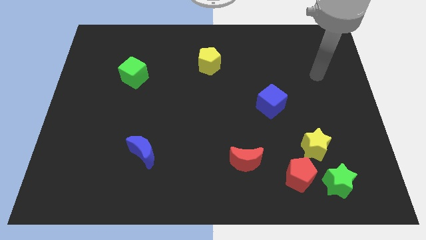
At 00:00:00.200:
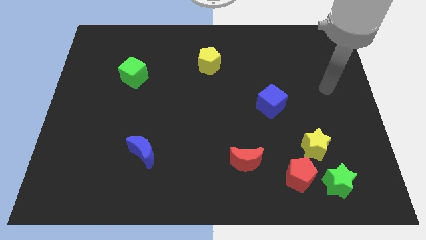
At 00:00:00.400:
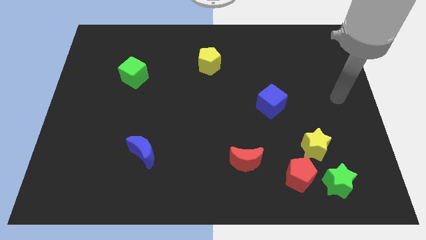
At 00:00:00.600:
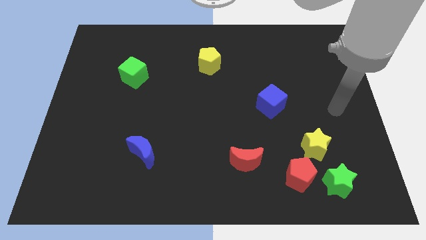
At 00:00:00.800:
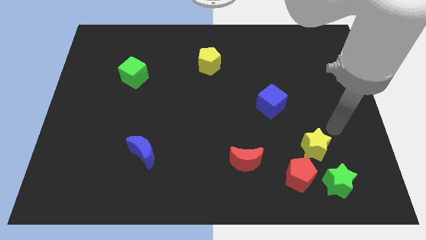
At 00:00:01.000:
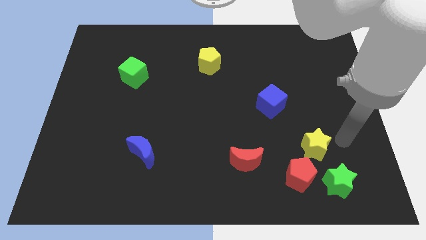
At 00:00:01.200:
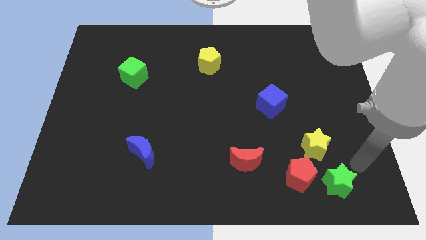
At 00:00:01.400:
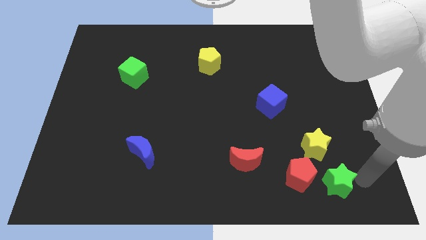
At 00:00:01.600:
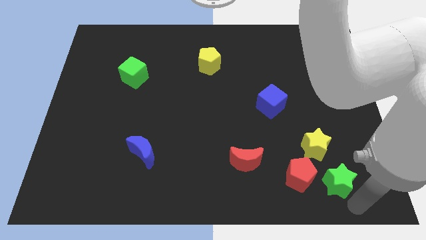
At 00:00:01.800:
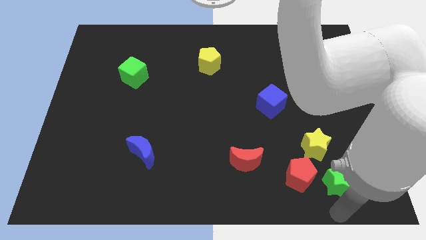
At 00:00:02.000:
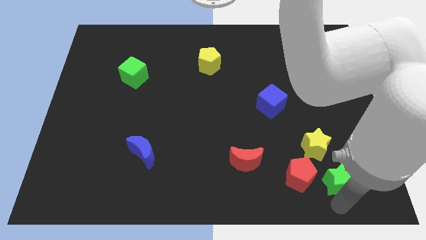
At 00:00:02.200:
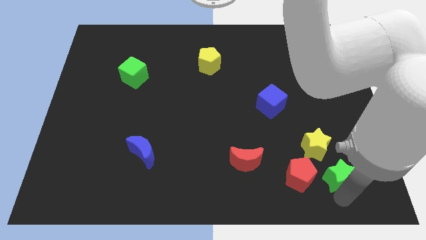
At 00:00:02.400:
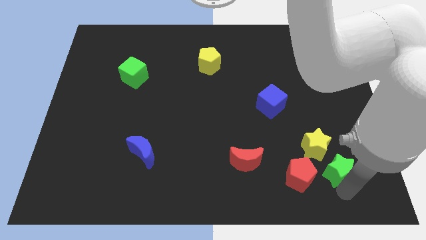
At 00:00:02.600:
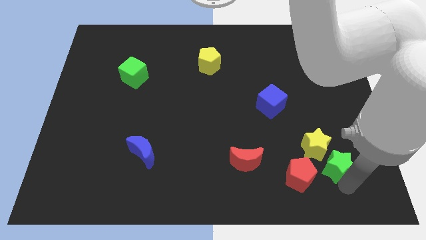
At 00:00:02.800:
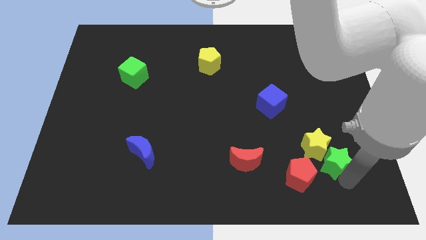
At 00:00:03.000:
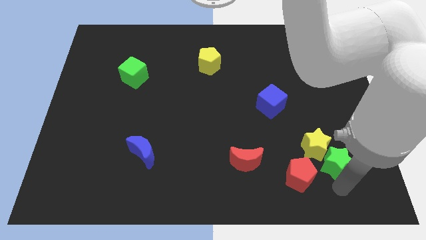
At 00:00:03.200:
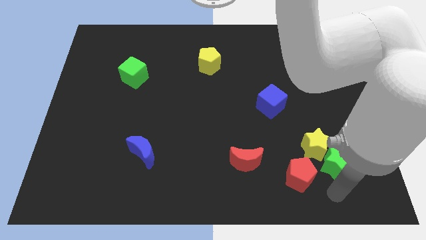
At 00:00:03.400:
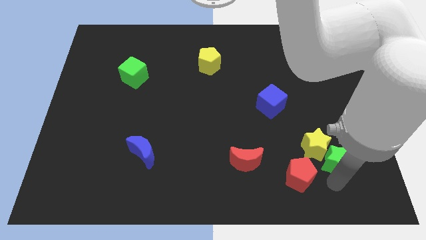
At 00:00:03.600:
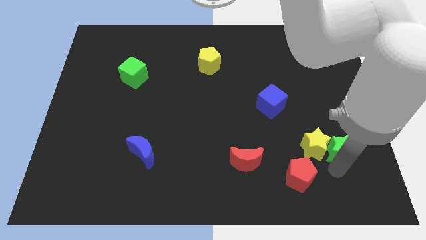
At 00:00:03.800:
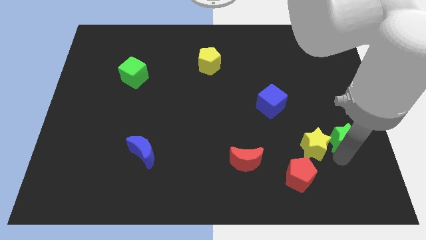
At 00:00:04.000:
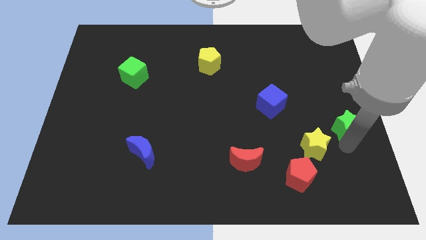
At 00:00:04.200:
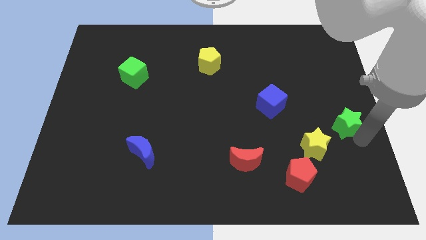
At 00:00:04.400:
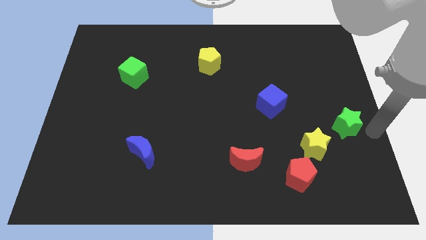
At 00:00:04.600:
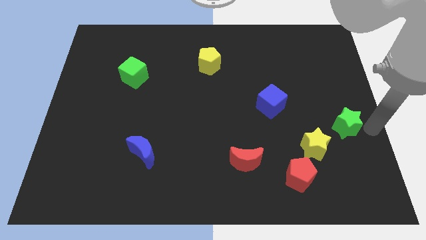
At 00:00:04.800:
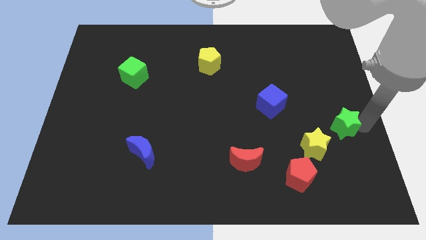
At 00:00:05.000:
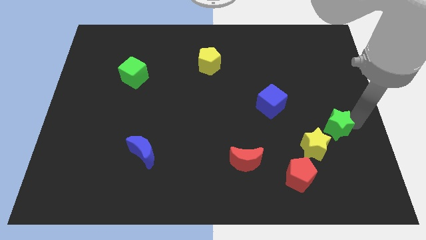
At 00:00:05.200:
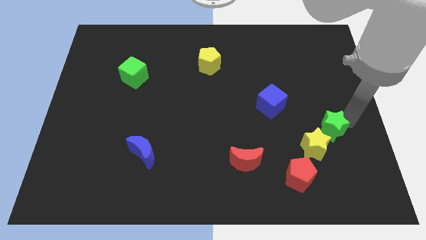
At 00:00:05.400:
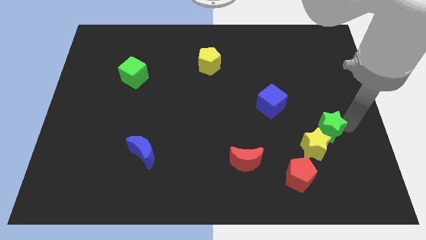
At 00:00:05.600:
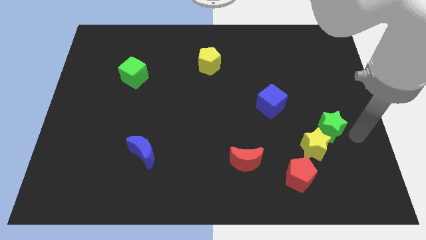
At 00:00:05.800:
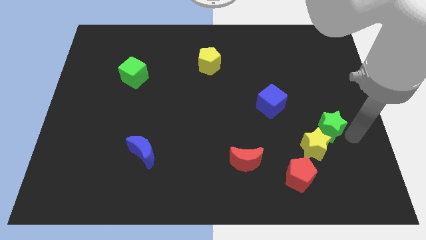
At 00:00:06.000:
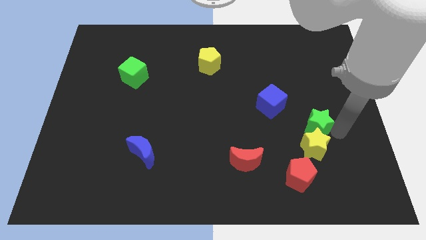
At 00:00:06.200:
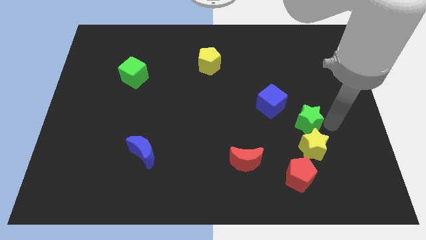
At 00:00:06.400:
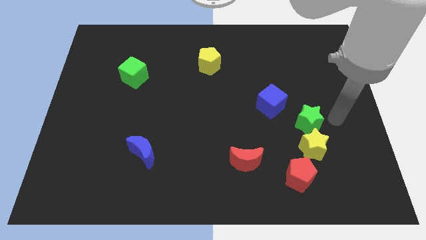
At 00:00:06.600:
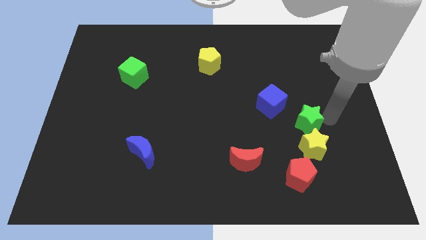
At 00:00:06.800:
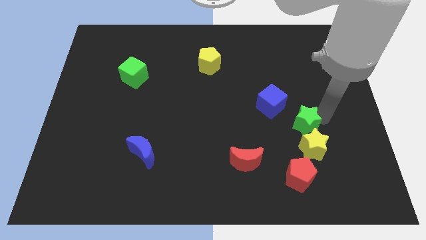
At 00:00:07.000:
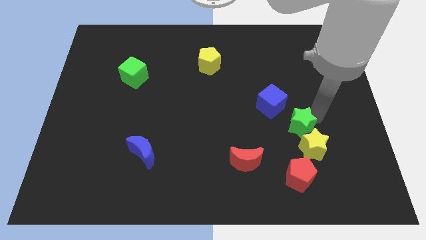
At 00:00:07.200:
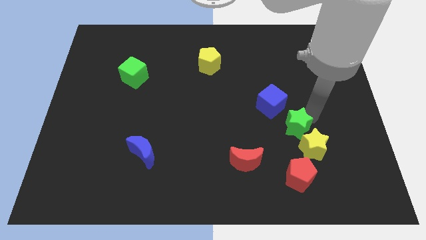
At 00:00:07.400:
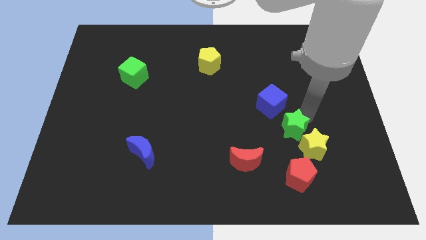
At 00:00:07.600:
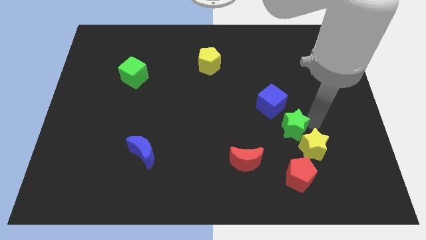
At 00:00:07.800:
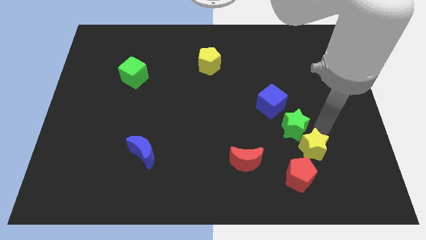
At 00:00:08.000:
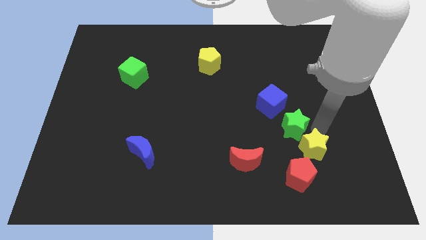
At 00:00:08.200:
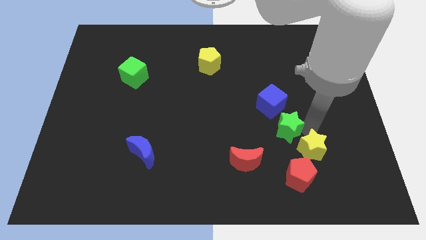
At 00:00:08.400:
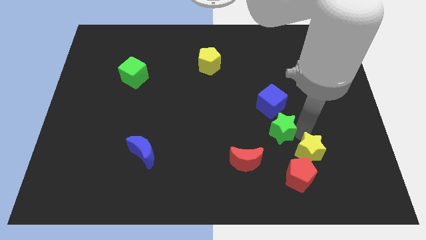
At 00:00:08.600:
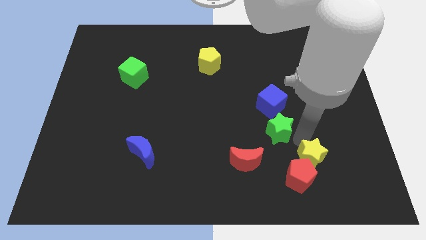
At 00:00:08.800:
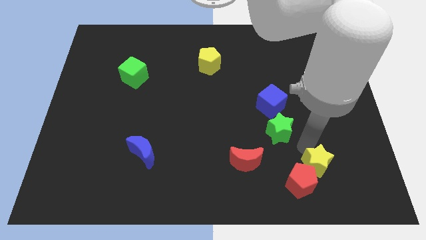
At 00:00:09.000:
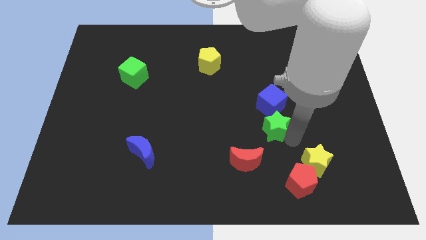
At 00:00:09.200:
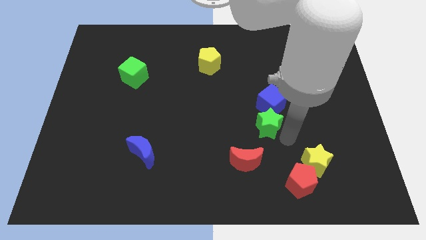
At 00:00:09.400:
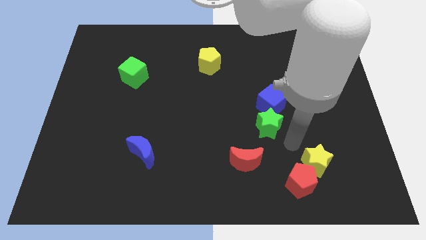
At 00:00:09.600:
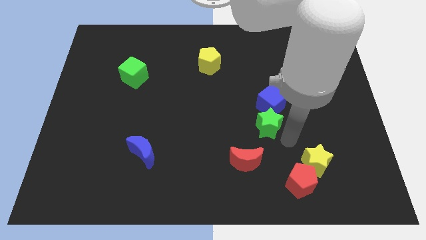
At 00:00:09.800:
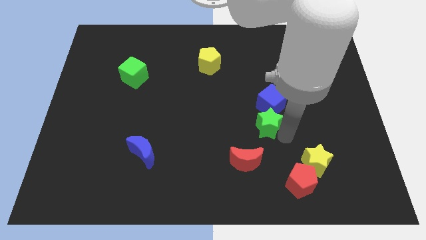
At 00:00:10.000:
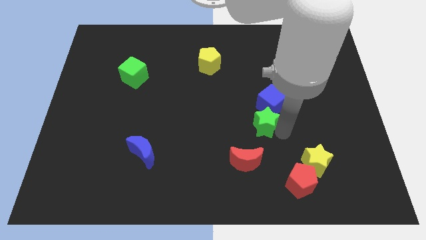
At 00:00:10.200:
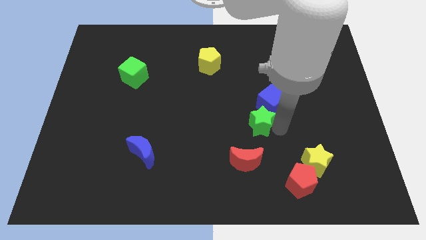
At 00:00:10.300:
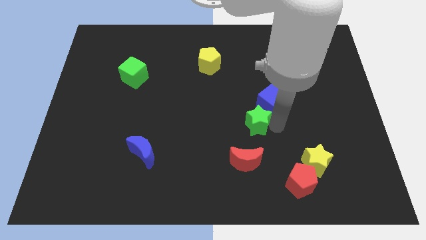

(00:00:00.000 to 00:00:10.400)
move the green star to the center of the board

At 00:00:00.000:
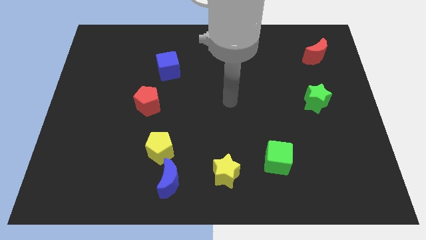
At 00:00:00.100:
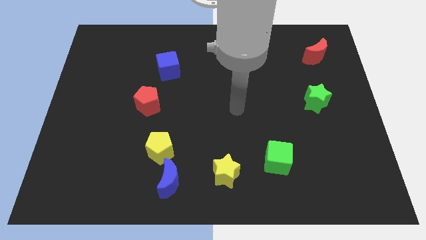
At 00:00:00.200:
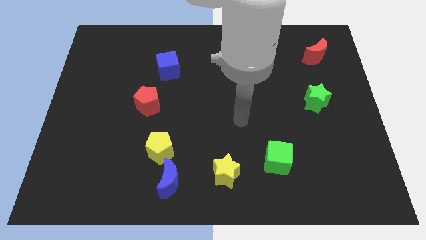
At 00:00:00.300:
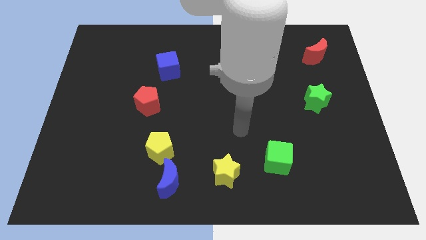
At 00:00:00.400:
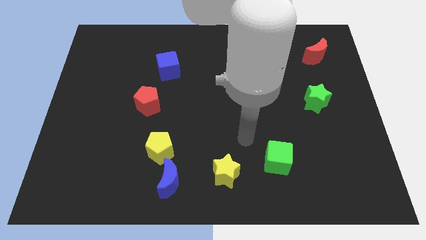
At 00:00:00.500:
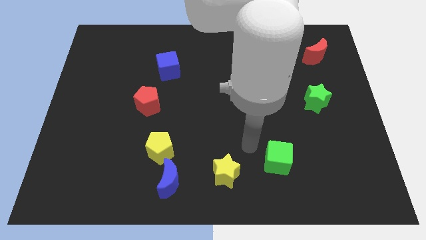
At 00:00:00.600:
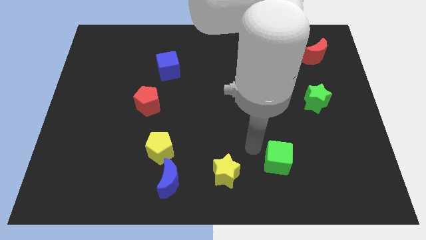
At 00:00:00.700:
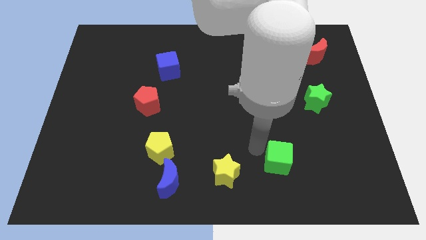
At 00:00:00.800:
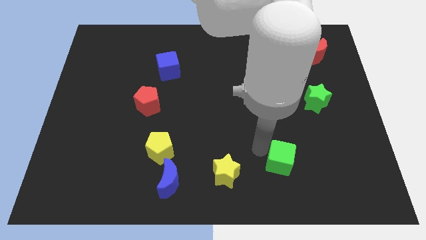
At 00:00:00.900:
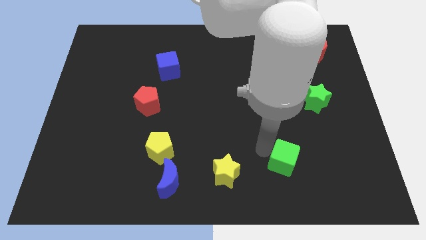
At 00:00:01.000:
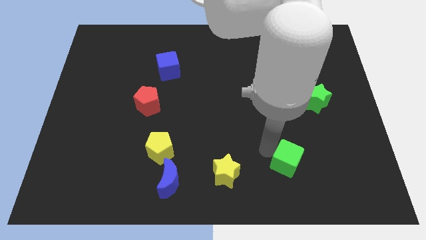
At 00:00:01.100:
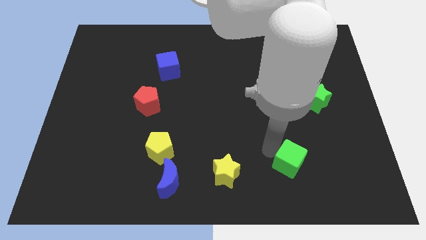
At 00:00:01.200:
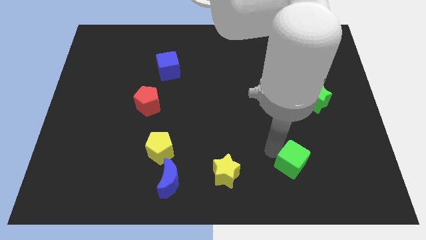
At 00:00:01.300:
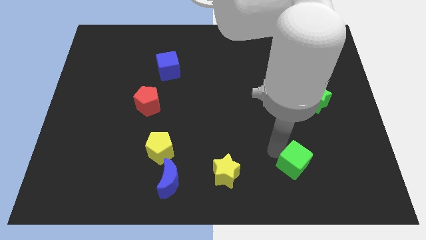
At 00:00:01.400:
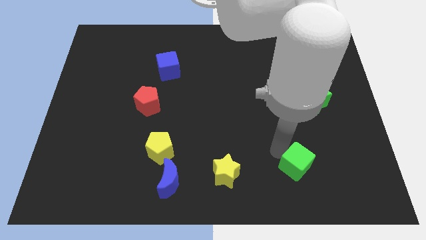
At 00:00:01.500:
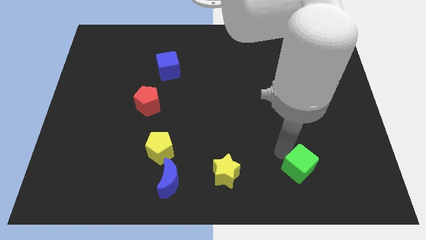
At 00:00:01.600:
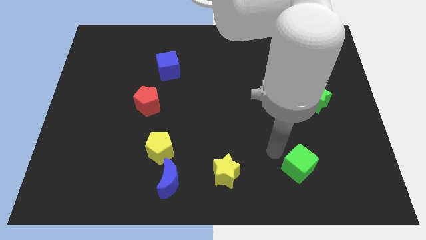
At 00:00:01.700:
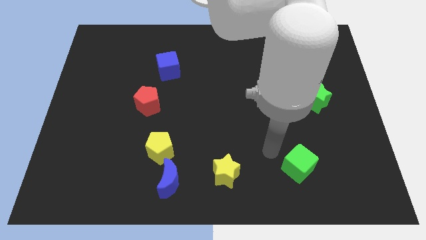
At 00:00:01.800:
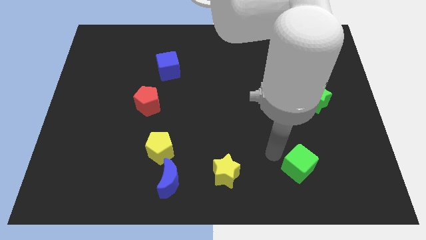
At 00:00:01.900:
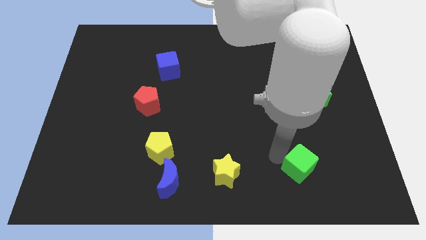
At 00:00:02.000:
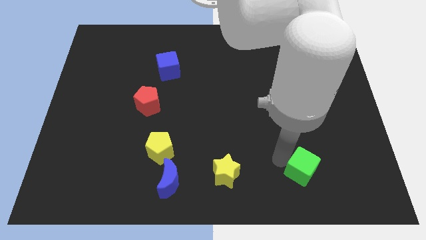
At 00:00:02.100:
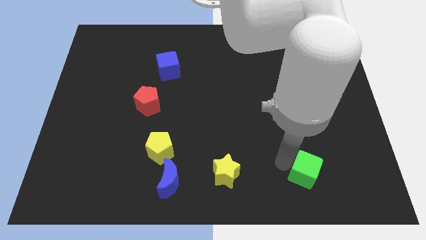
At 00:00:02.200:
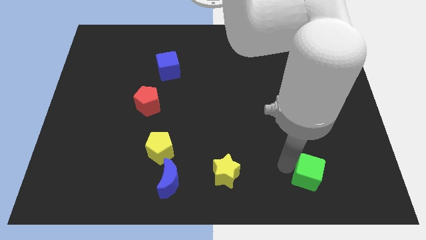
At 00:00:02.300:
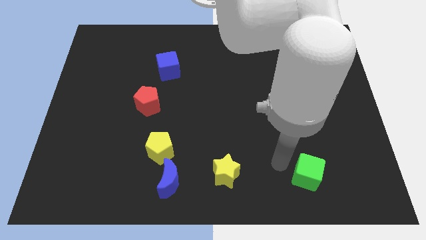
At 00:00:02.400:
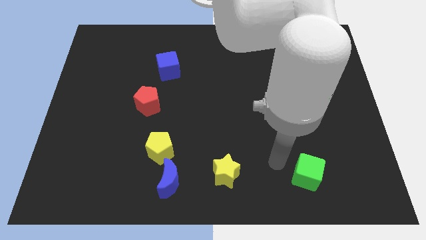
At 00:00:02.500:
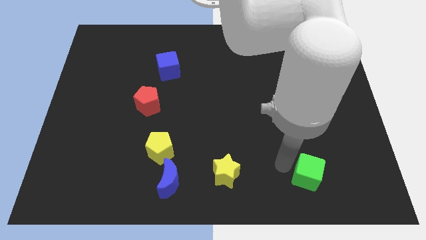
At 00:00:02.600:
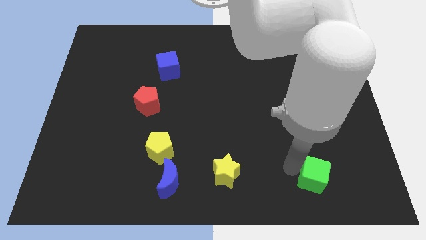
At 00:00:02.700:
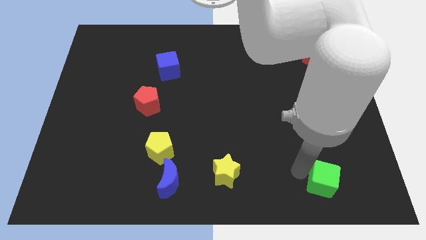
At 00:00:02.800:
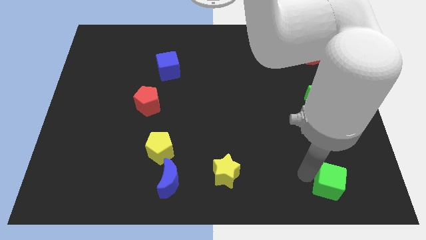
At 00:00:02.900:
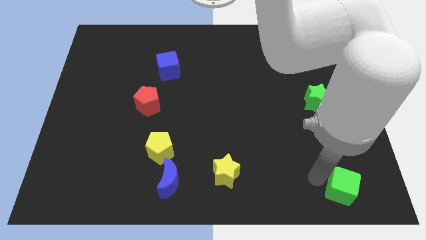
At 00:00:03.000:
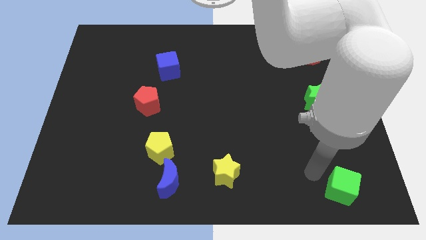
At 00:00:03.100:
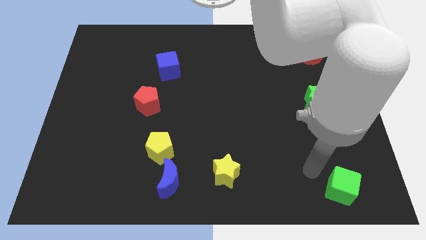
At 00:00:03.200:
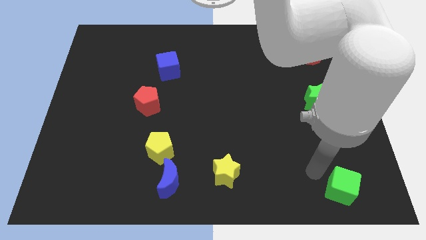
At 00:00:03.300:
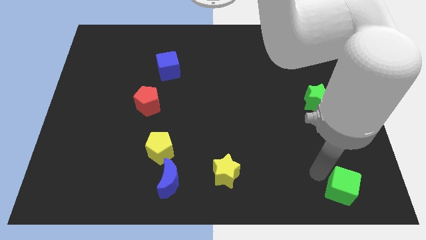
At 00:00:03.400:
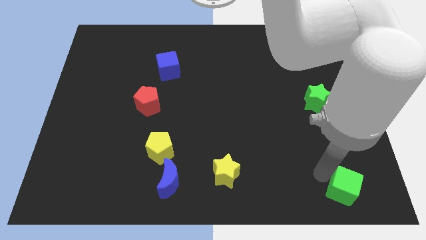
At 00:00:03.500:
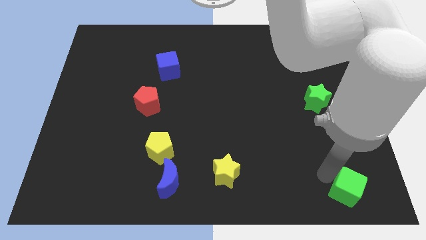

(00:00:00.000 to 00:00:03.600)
put the green cube to the bottom right
